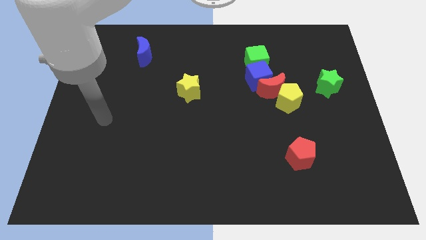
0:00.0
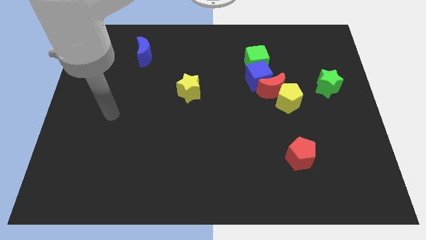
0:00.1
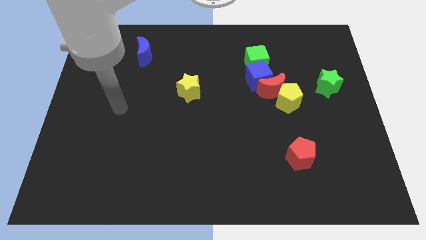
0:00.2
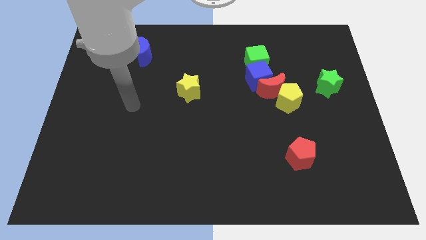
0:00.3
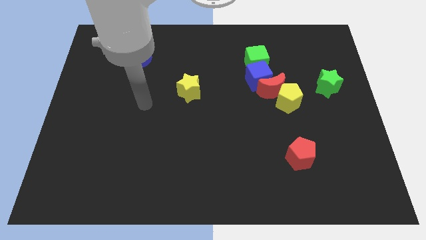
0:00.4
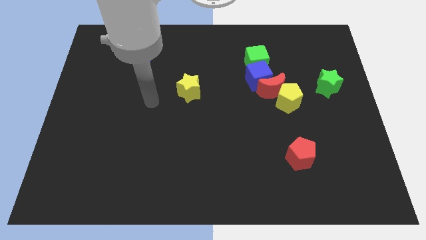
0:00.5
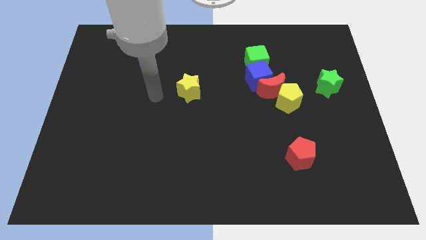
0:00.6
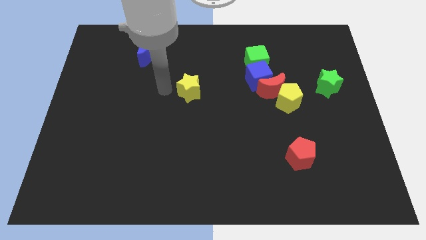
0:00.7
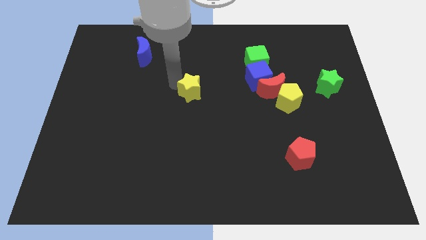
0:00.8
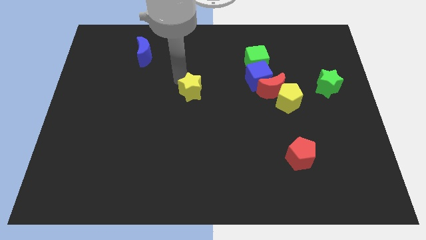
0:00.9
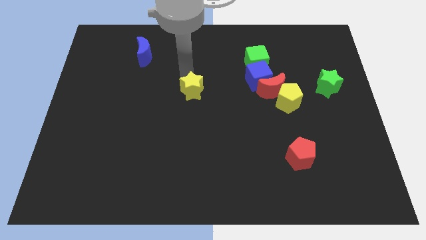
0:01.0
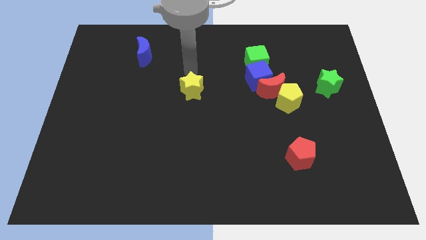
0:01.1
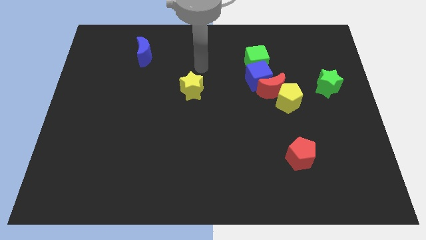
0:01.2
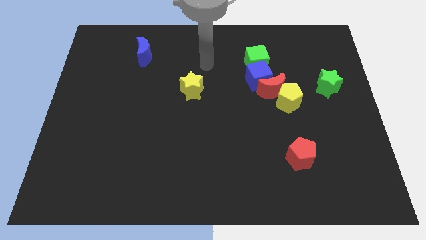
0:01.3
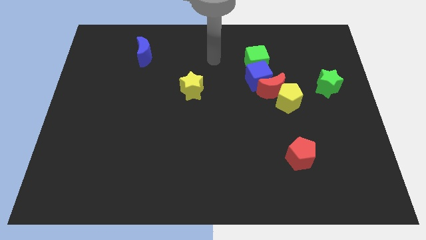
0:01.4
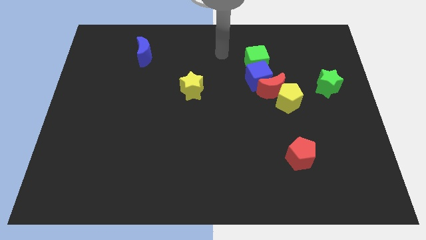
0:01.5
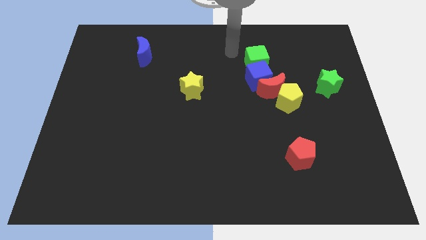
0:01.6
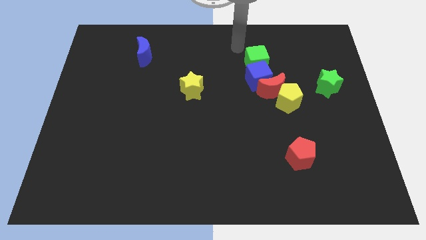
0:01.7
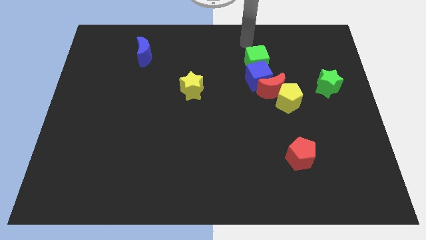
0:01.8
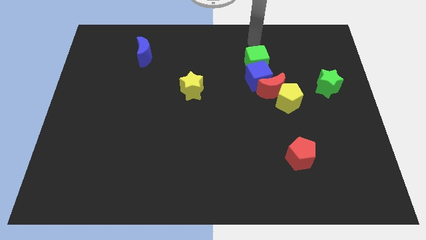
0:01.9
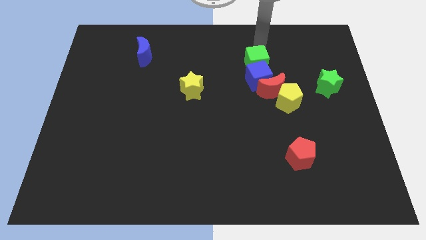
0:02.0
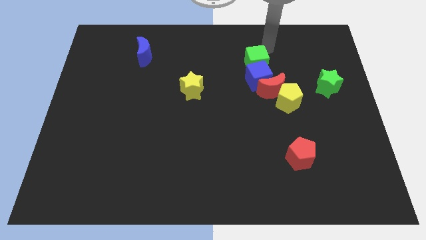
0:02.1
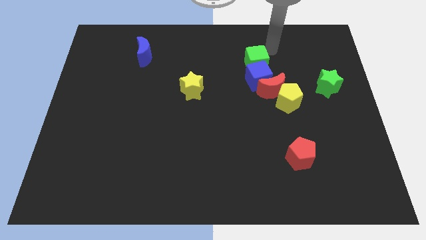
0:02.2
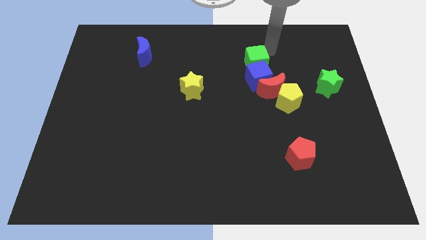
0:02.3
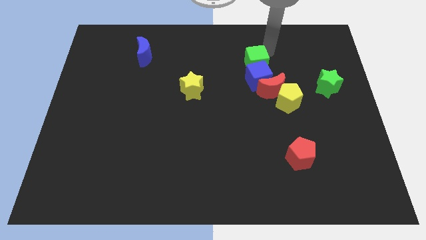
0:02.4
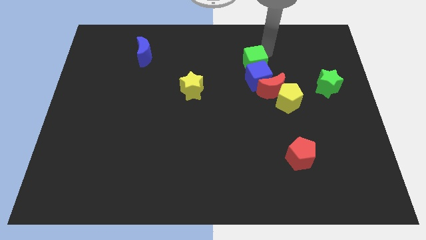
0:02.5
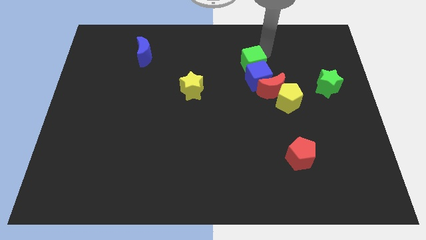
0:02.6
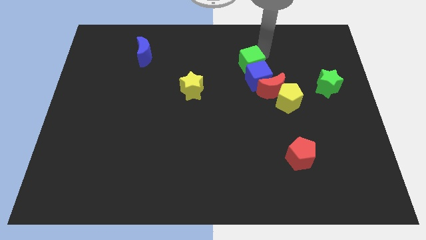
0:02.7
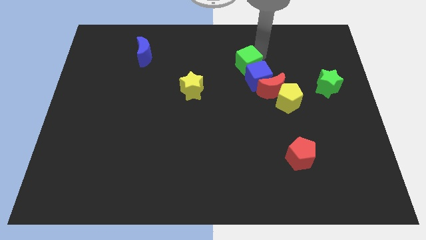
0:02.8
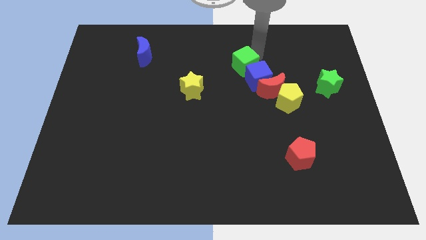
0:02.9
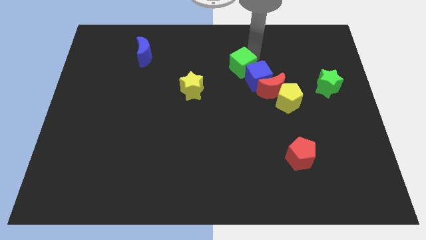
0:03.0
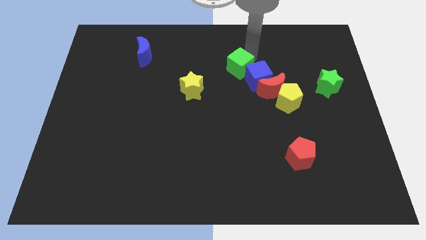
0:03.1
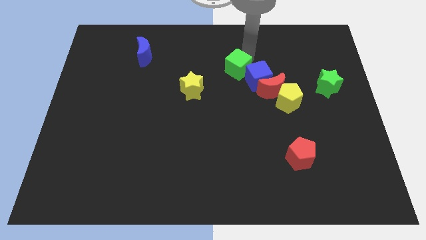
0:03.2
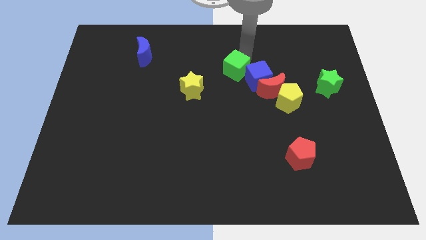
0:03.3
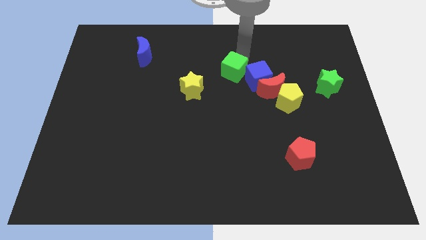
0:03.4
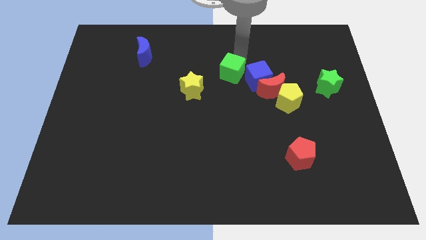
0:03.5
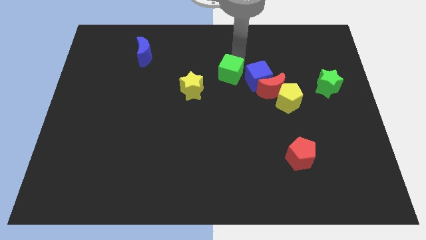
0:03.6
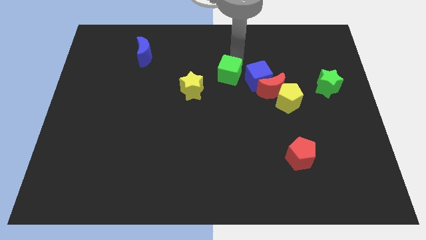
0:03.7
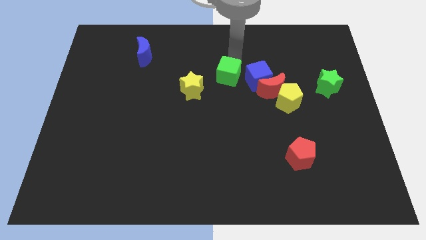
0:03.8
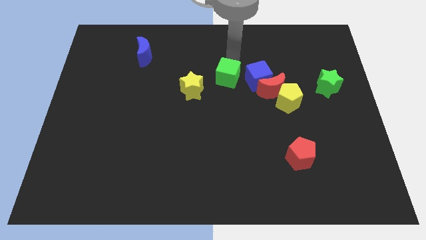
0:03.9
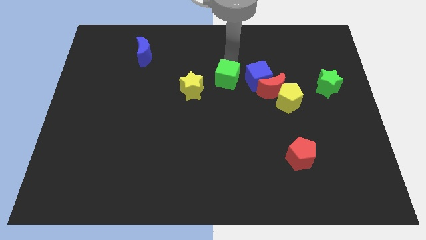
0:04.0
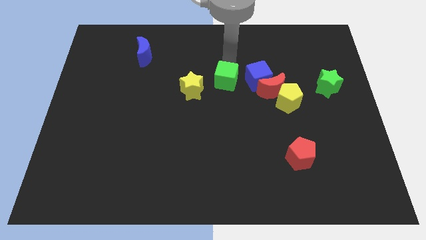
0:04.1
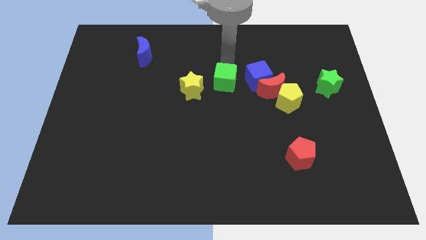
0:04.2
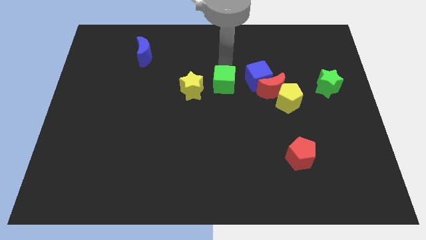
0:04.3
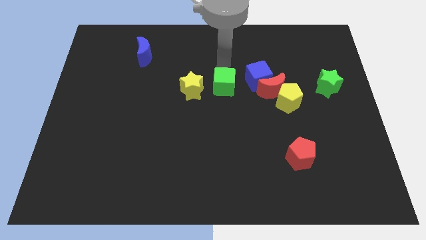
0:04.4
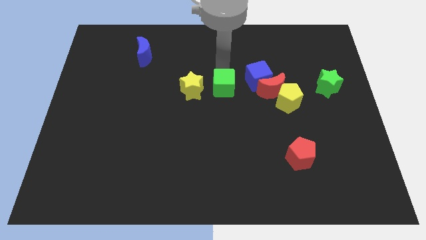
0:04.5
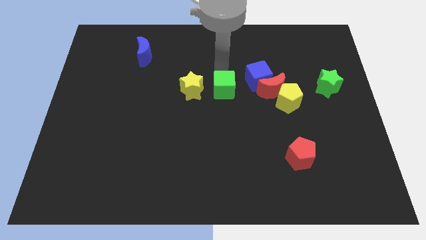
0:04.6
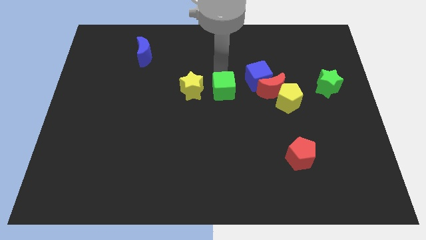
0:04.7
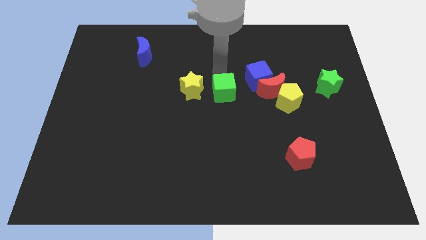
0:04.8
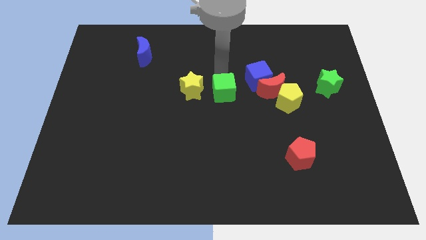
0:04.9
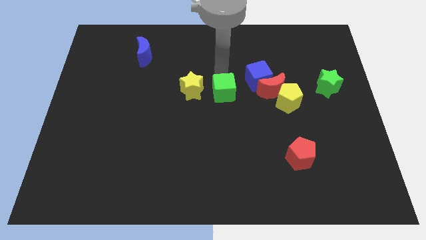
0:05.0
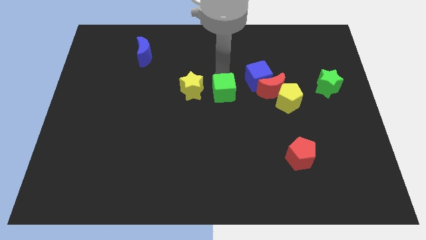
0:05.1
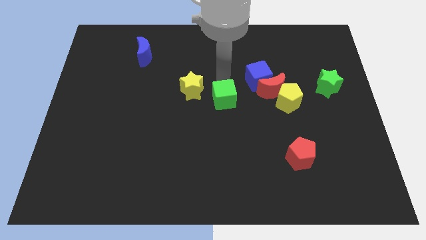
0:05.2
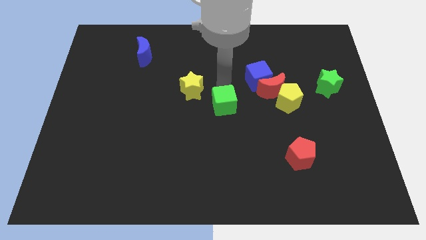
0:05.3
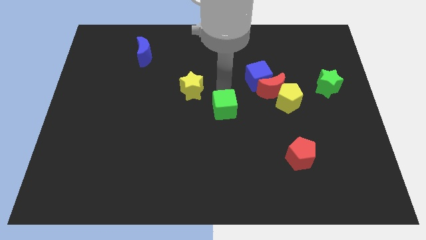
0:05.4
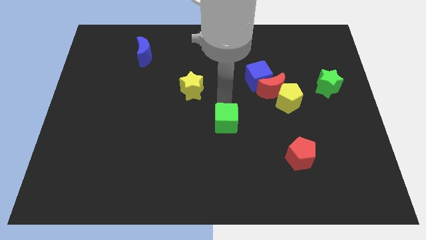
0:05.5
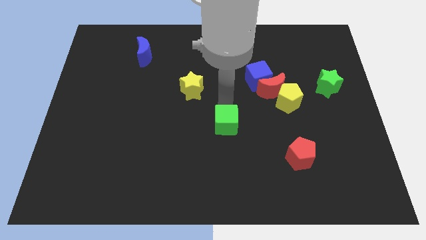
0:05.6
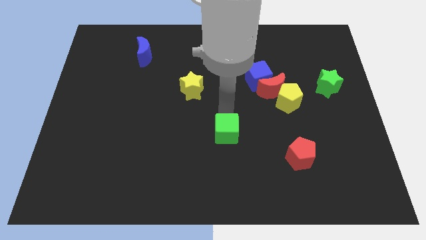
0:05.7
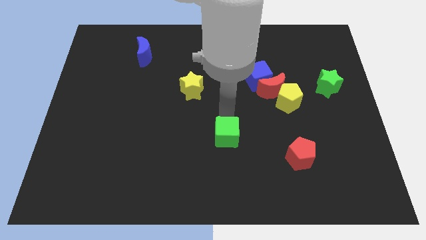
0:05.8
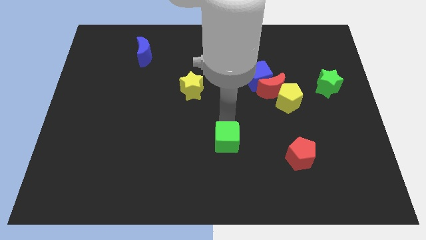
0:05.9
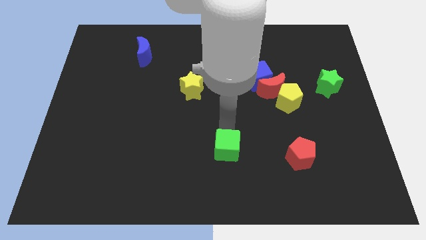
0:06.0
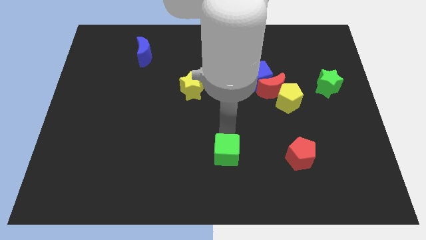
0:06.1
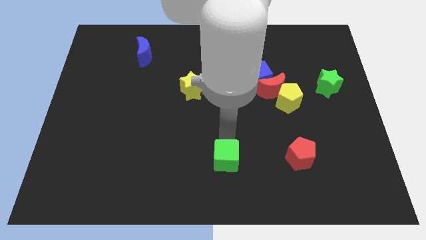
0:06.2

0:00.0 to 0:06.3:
put the green cube to the bottom side

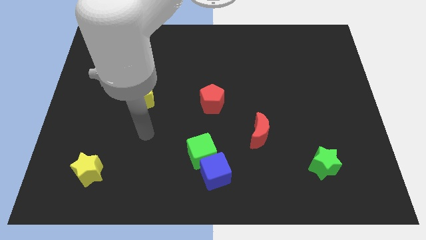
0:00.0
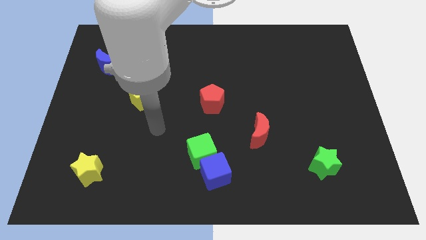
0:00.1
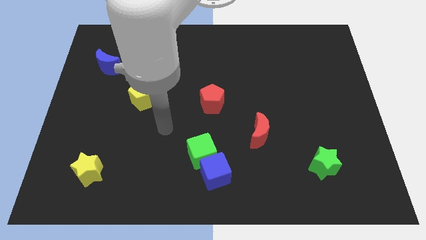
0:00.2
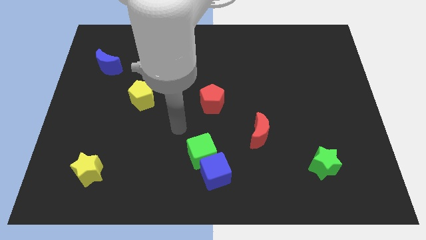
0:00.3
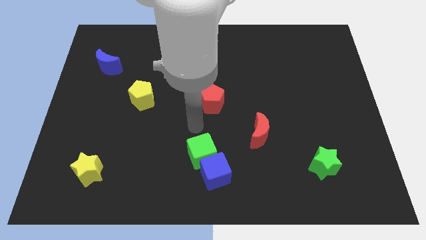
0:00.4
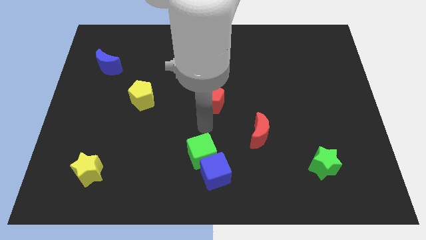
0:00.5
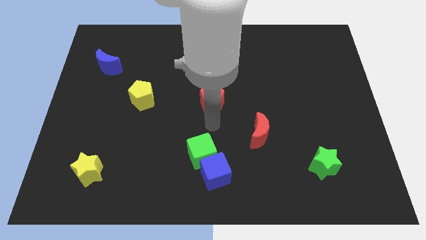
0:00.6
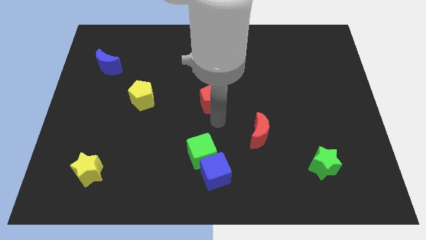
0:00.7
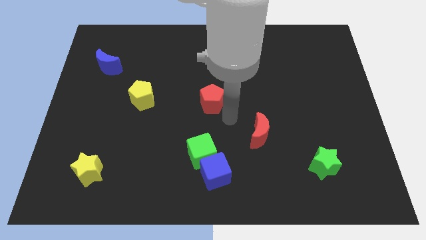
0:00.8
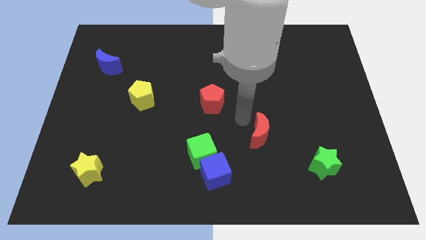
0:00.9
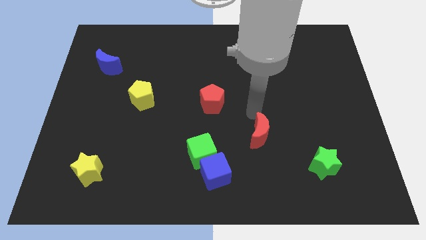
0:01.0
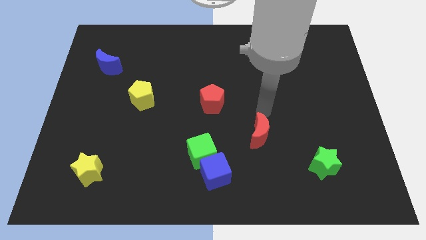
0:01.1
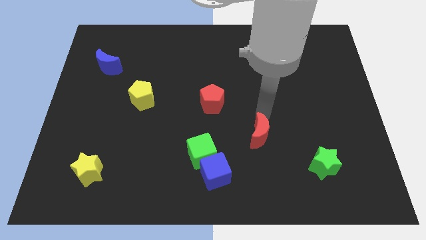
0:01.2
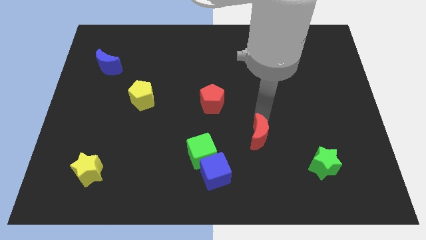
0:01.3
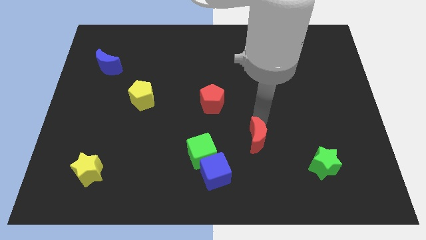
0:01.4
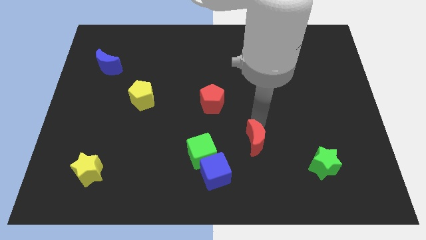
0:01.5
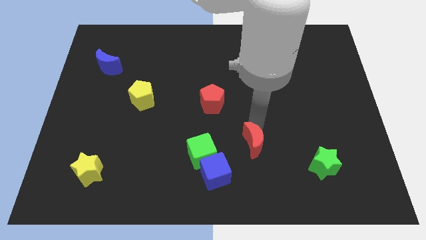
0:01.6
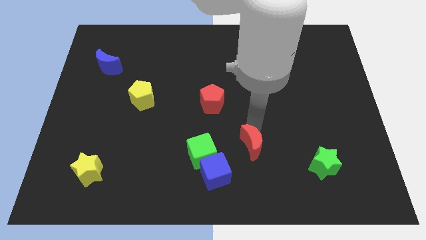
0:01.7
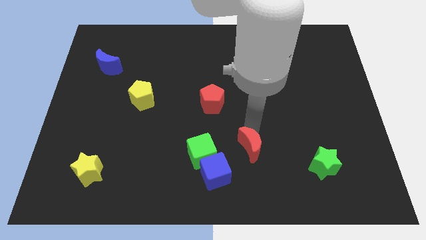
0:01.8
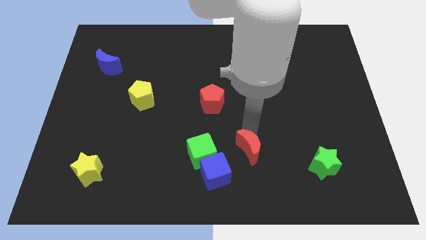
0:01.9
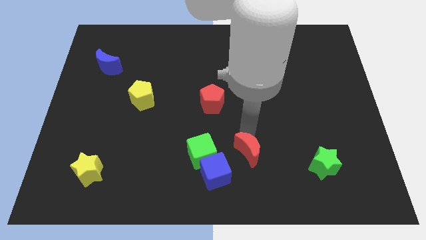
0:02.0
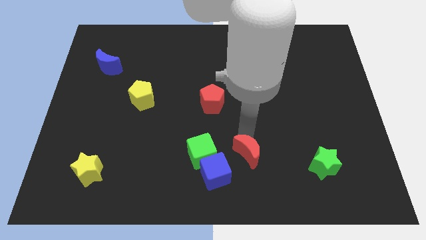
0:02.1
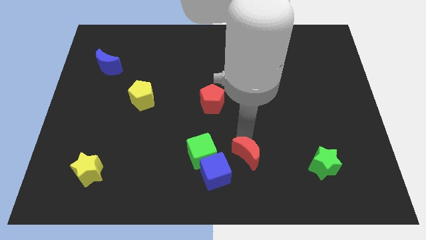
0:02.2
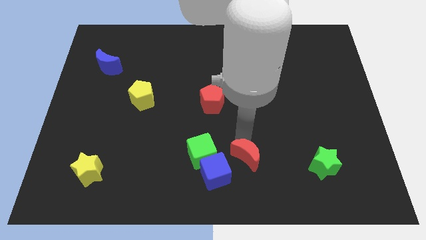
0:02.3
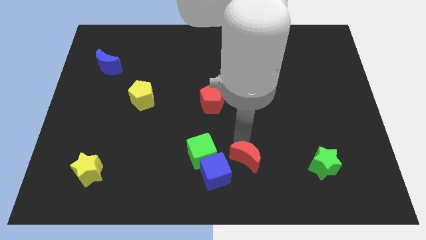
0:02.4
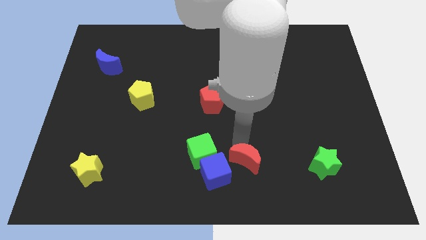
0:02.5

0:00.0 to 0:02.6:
slide the red moon to the bottom
